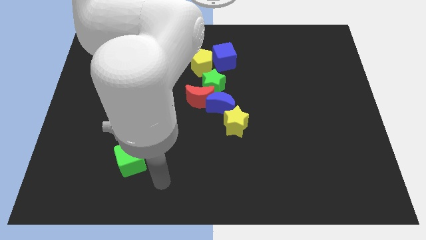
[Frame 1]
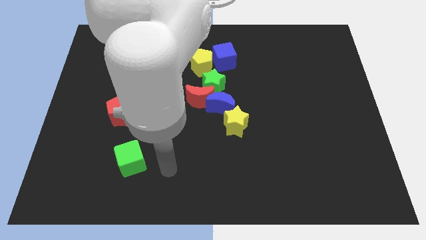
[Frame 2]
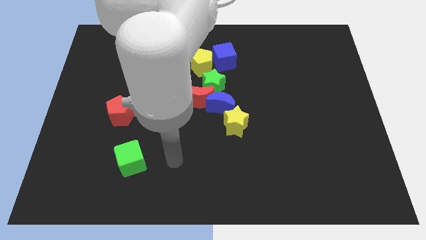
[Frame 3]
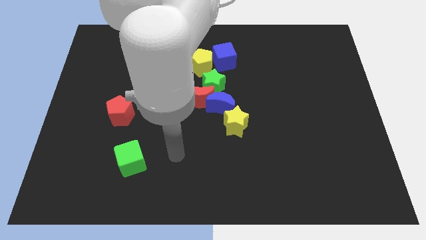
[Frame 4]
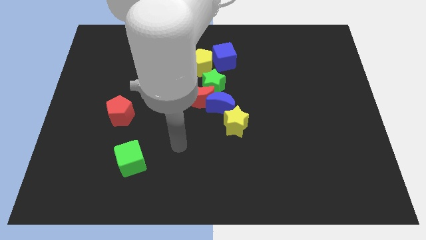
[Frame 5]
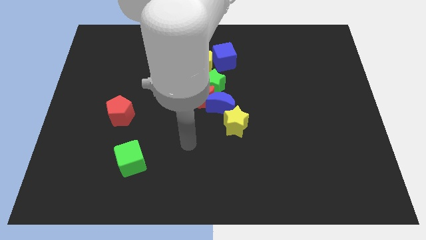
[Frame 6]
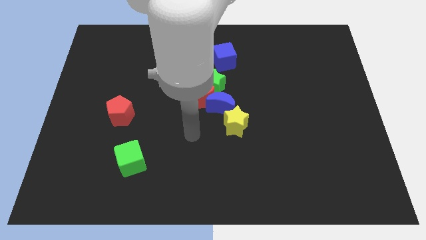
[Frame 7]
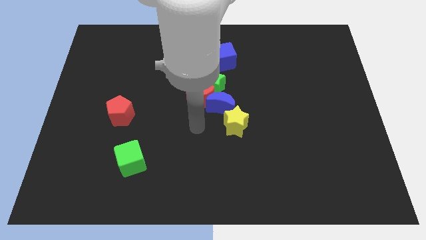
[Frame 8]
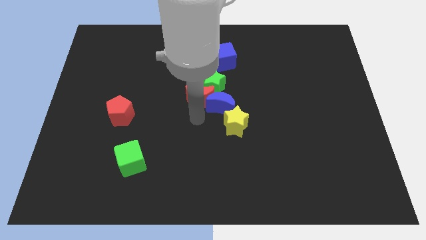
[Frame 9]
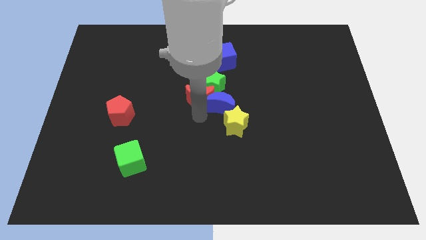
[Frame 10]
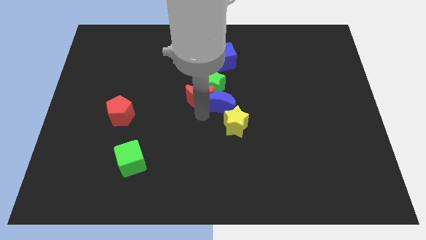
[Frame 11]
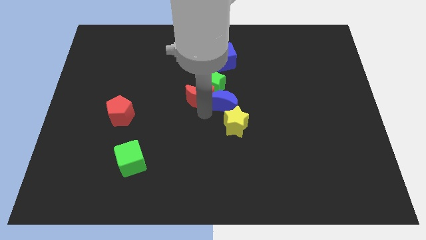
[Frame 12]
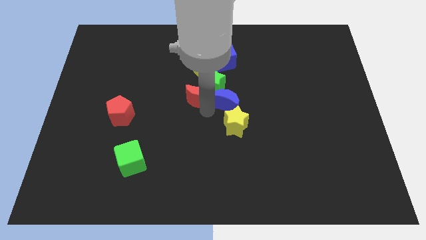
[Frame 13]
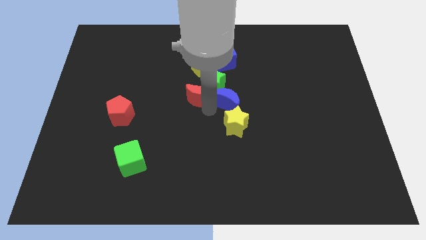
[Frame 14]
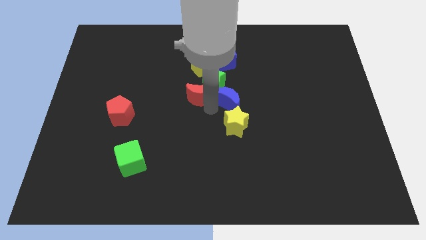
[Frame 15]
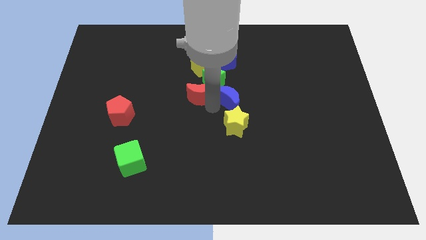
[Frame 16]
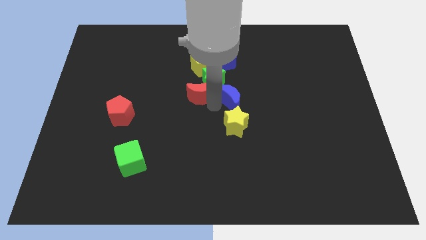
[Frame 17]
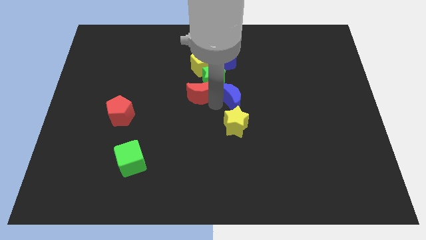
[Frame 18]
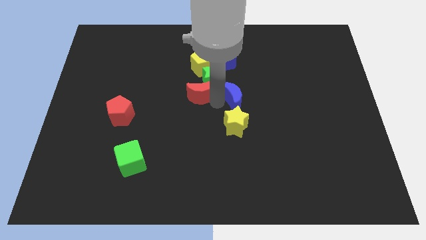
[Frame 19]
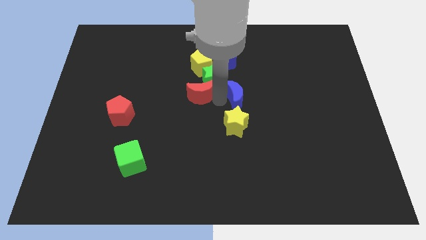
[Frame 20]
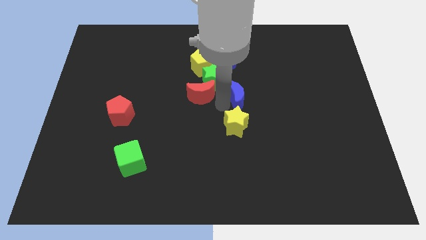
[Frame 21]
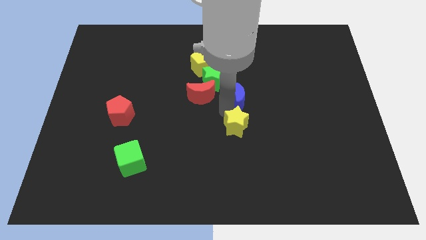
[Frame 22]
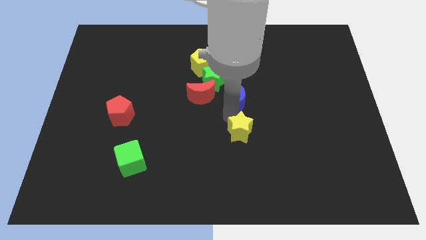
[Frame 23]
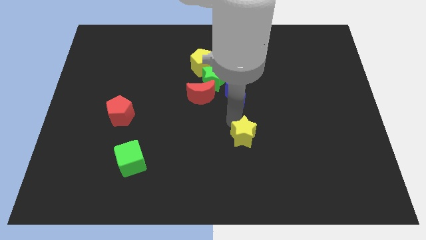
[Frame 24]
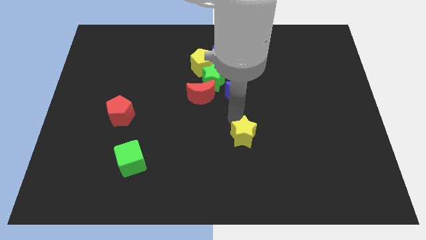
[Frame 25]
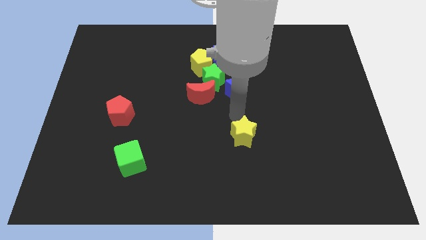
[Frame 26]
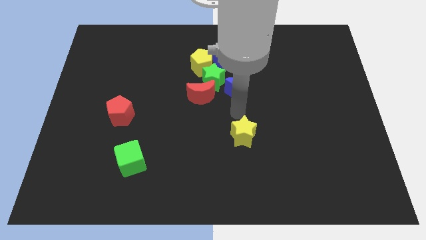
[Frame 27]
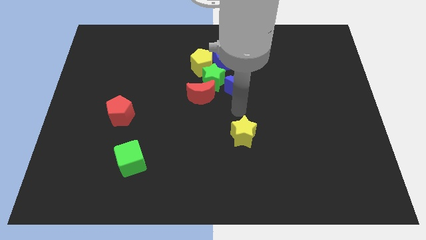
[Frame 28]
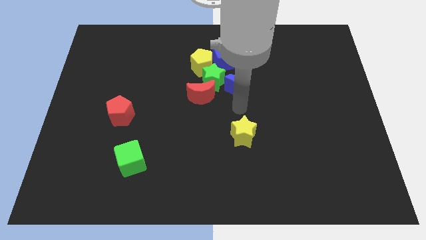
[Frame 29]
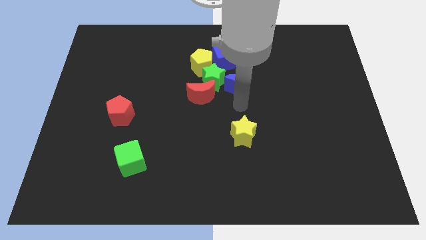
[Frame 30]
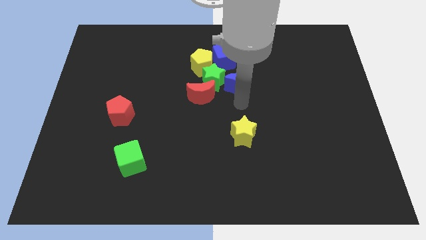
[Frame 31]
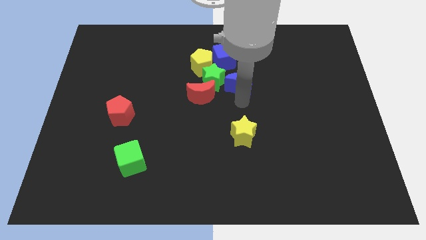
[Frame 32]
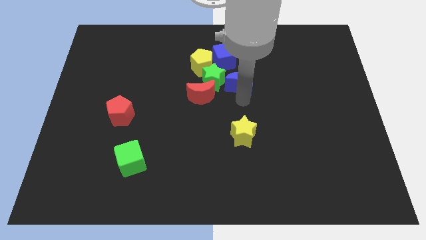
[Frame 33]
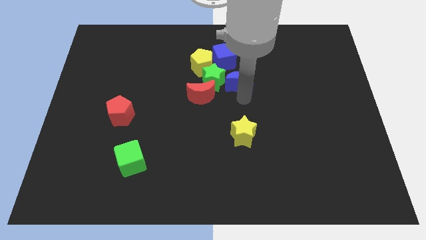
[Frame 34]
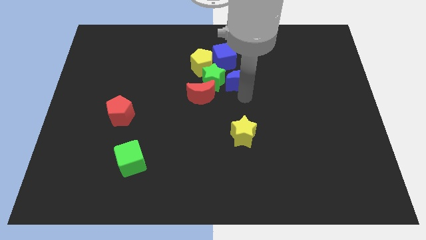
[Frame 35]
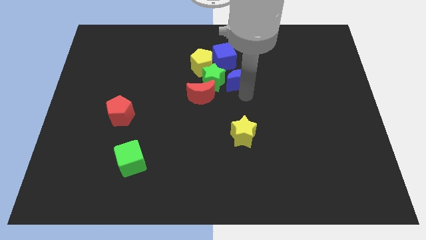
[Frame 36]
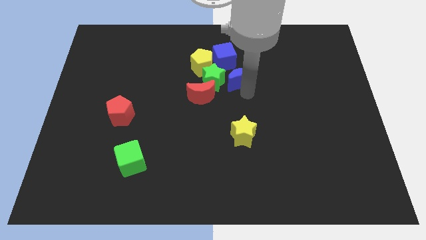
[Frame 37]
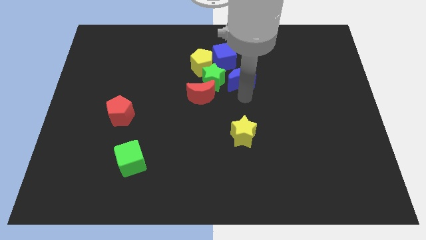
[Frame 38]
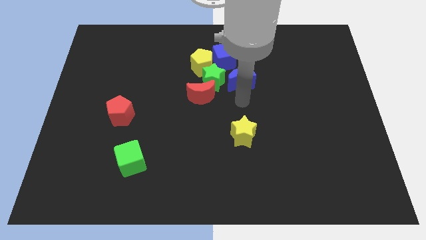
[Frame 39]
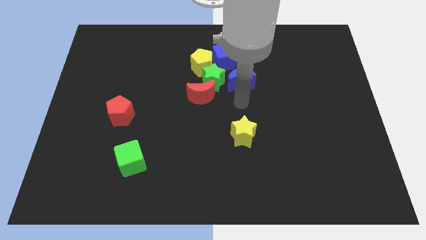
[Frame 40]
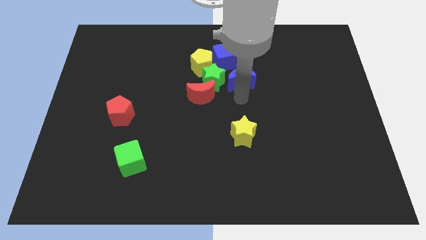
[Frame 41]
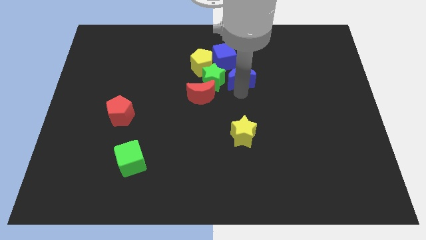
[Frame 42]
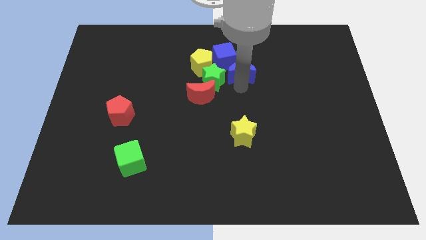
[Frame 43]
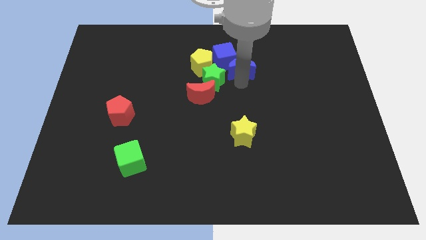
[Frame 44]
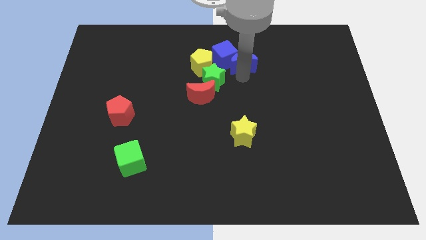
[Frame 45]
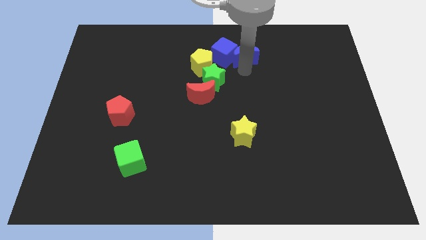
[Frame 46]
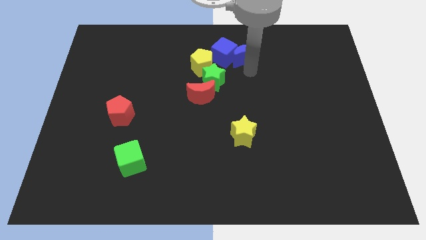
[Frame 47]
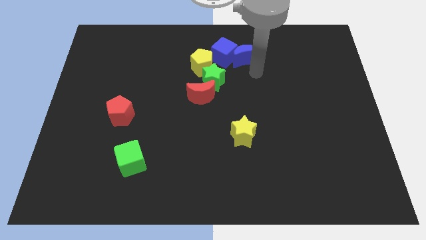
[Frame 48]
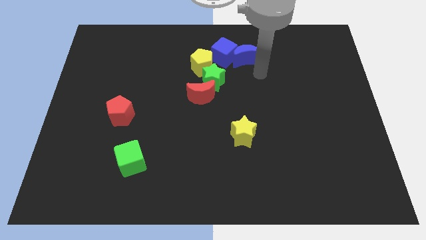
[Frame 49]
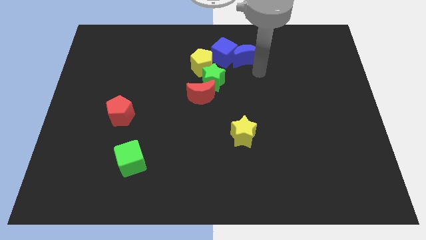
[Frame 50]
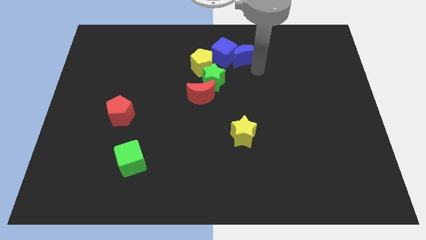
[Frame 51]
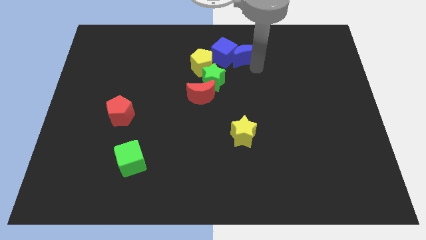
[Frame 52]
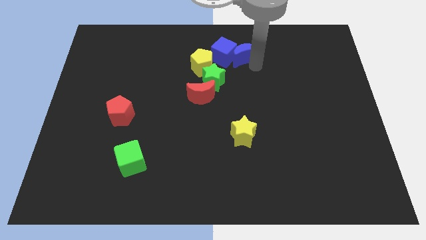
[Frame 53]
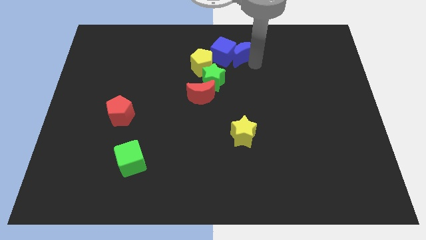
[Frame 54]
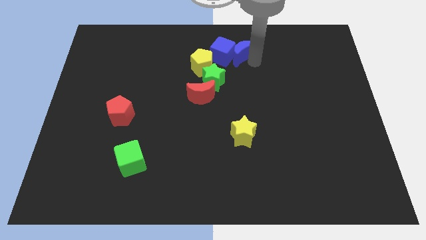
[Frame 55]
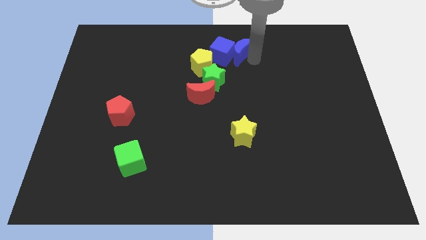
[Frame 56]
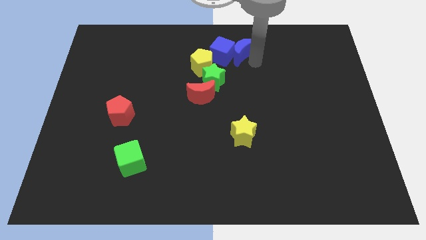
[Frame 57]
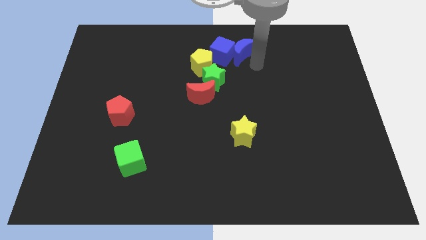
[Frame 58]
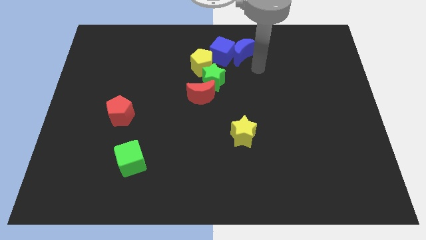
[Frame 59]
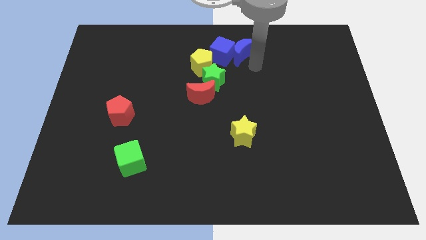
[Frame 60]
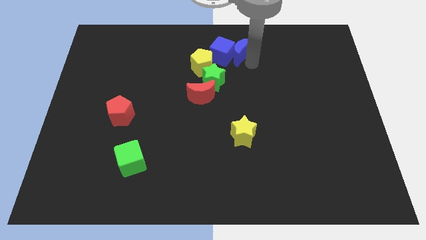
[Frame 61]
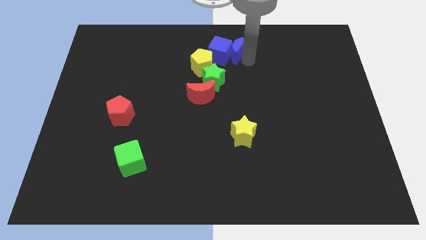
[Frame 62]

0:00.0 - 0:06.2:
push the blue moon to the towards your base

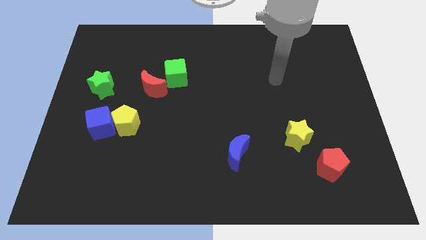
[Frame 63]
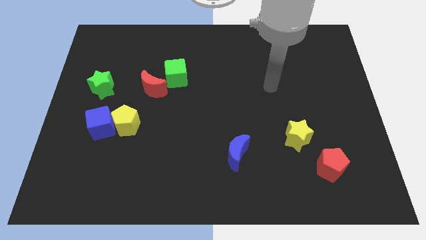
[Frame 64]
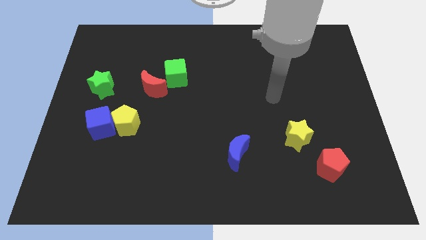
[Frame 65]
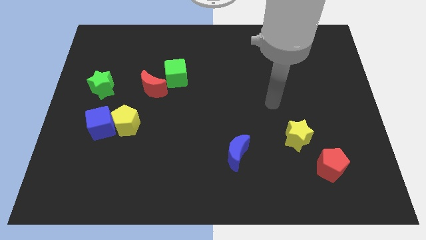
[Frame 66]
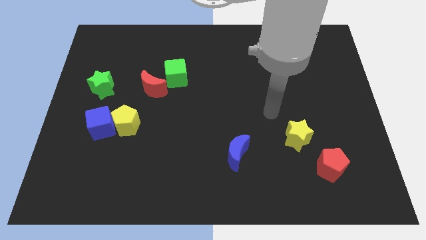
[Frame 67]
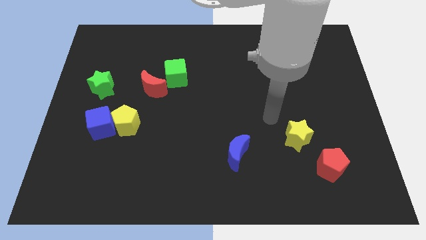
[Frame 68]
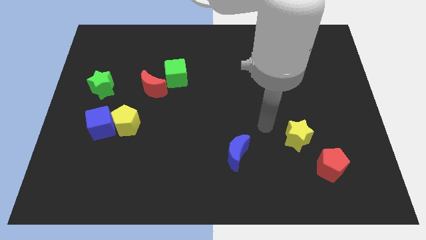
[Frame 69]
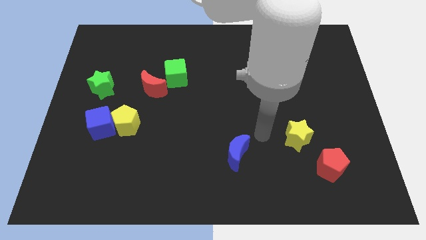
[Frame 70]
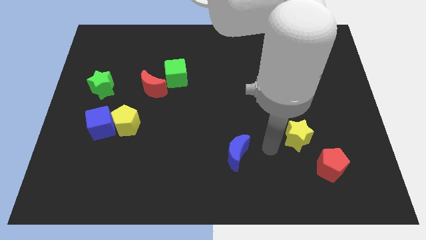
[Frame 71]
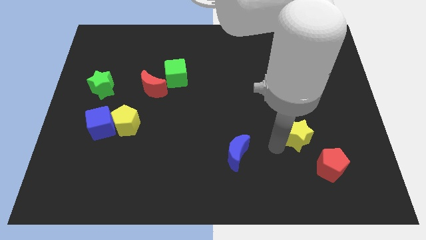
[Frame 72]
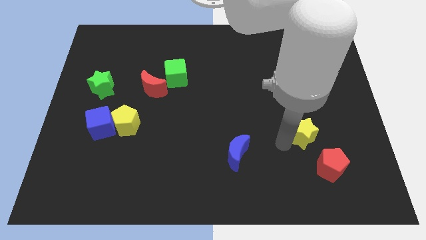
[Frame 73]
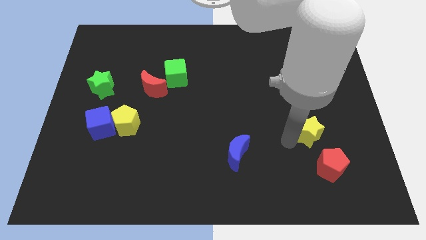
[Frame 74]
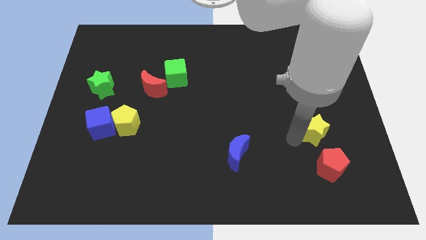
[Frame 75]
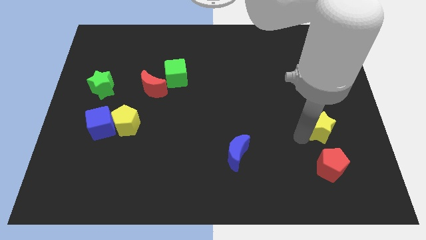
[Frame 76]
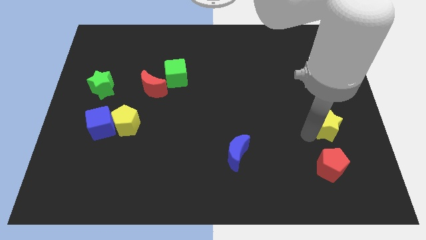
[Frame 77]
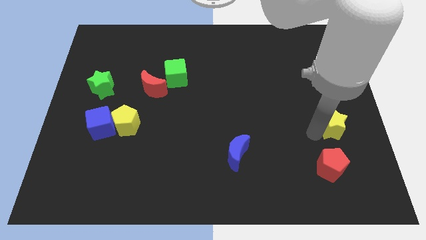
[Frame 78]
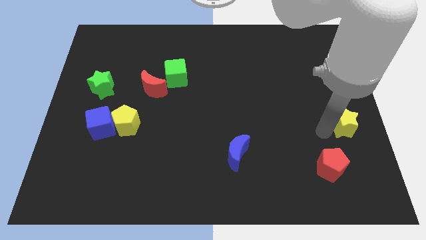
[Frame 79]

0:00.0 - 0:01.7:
push the yellow star to the right side
